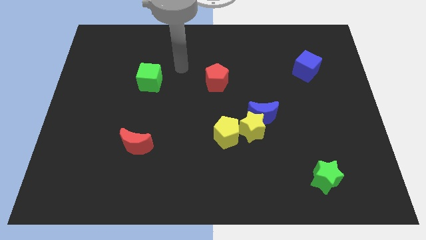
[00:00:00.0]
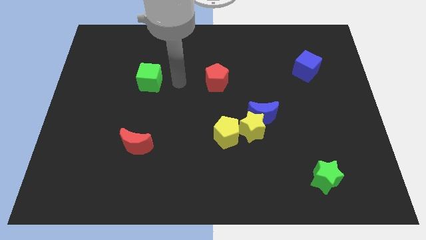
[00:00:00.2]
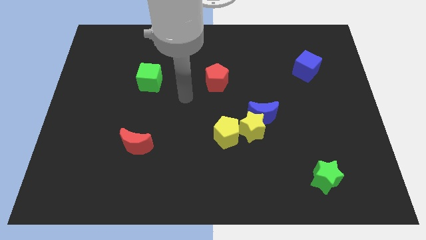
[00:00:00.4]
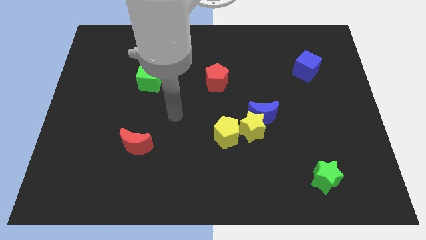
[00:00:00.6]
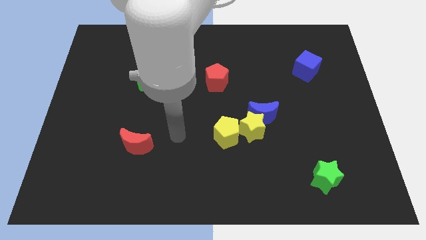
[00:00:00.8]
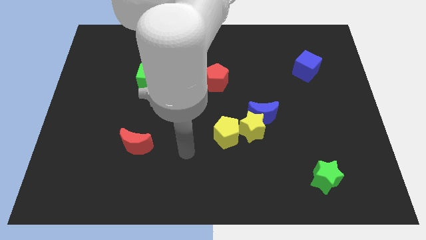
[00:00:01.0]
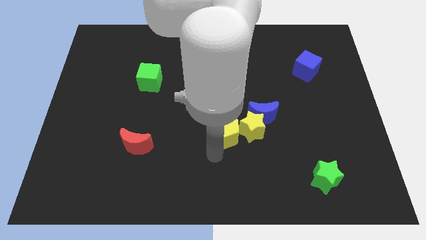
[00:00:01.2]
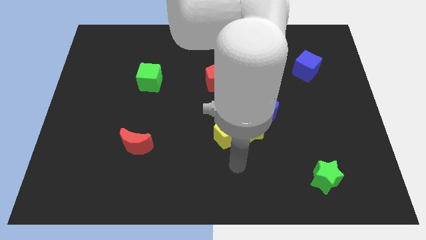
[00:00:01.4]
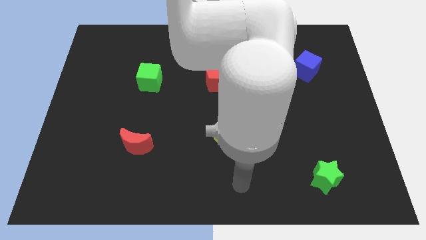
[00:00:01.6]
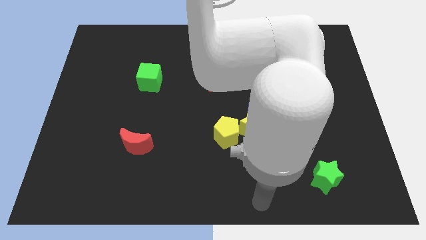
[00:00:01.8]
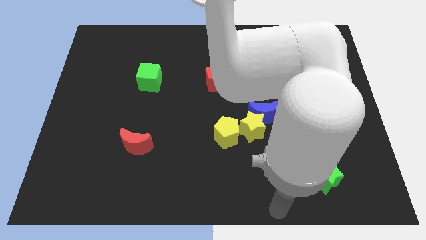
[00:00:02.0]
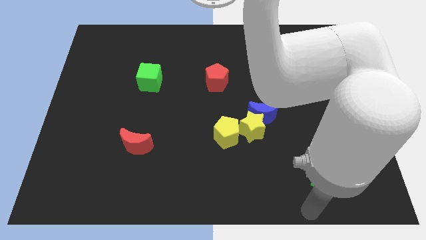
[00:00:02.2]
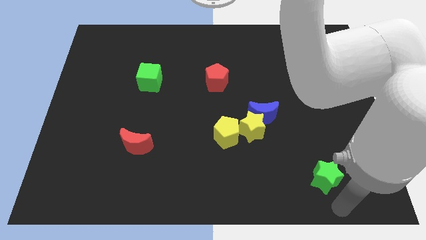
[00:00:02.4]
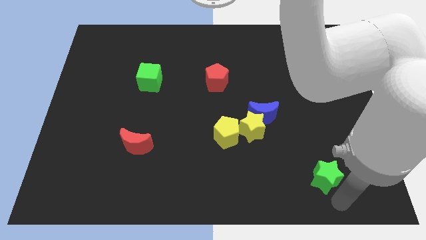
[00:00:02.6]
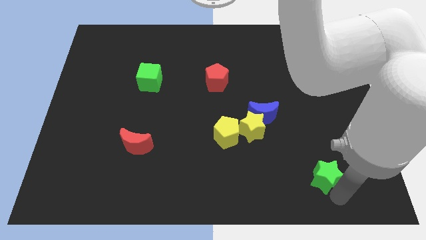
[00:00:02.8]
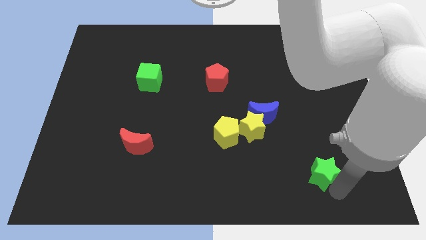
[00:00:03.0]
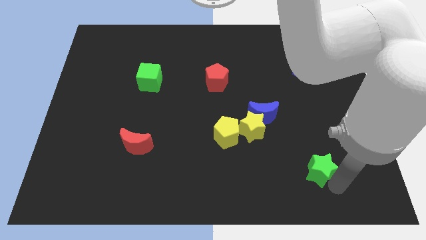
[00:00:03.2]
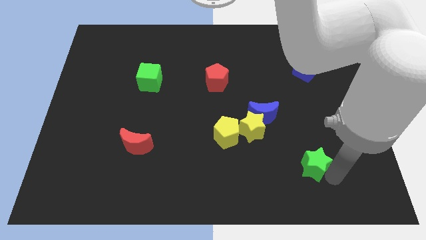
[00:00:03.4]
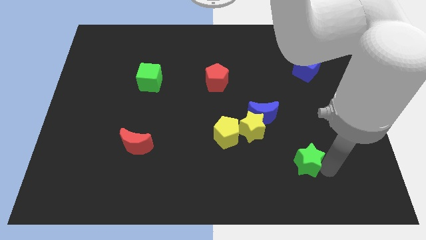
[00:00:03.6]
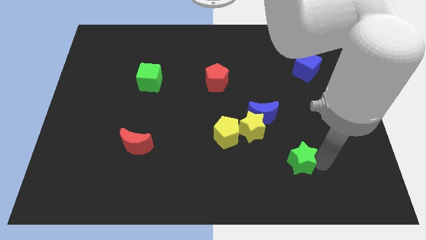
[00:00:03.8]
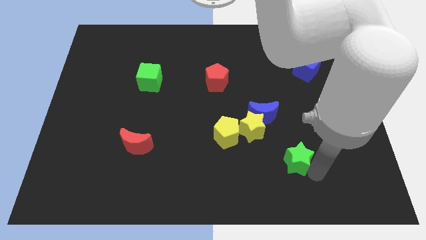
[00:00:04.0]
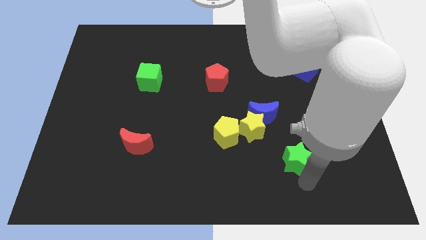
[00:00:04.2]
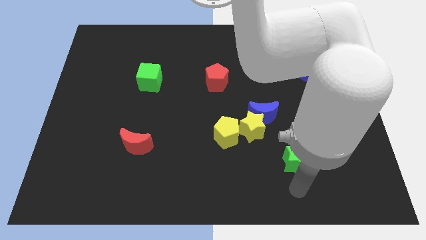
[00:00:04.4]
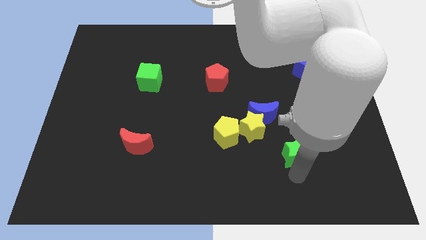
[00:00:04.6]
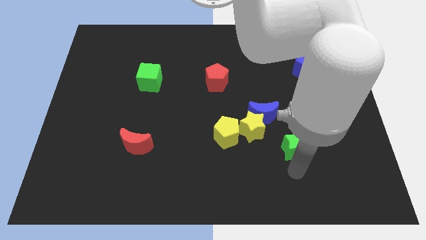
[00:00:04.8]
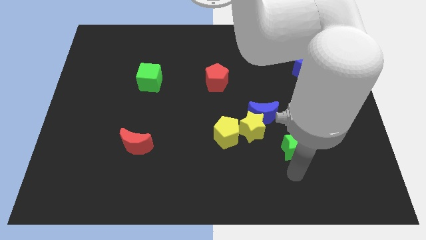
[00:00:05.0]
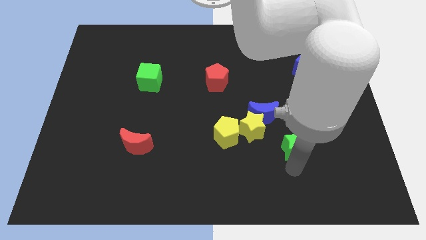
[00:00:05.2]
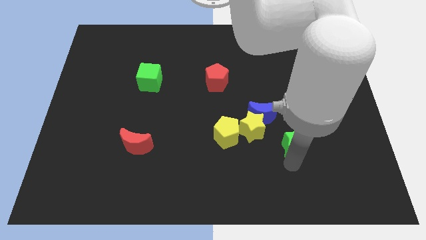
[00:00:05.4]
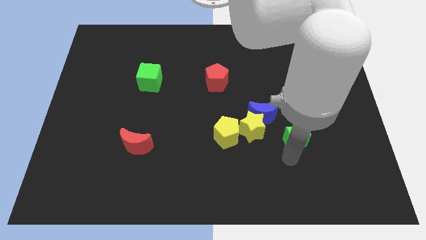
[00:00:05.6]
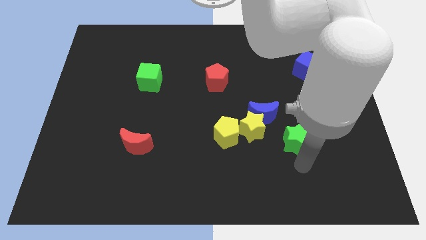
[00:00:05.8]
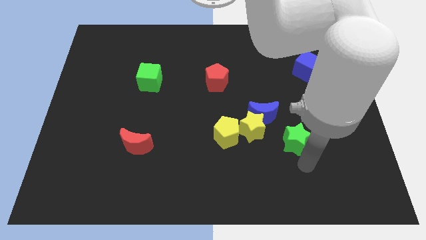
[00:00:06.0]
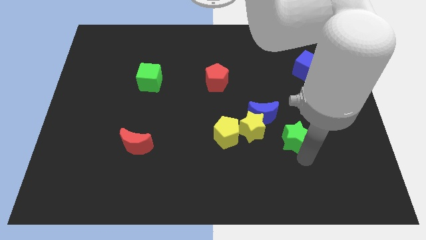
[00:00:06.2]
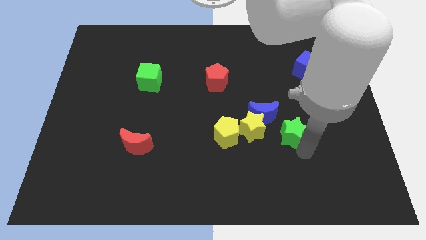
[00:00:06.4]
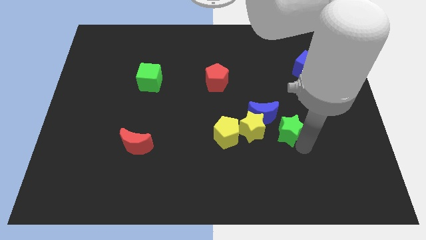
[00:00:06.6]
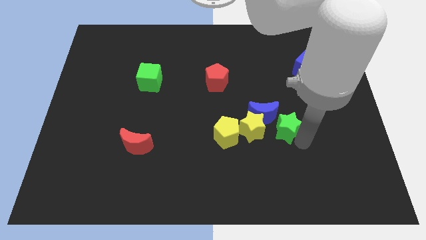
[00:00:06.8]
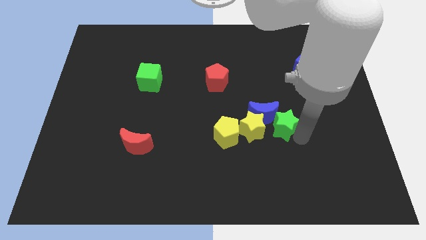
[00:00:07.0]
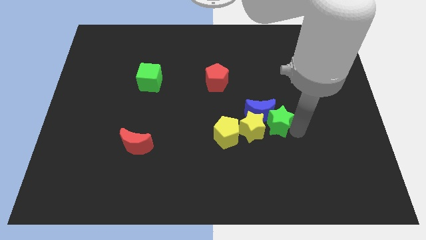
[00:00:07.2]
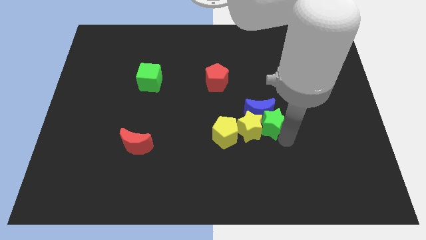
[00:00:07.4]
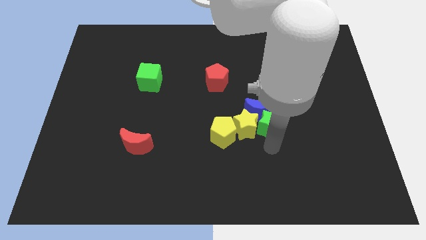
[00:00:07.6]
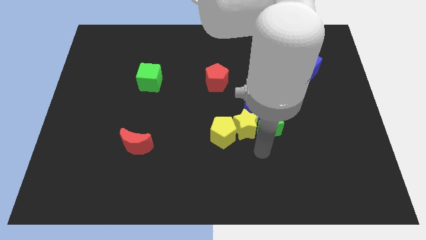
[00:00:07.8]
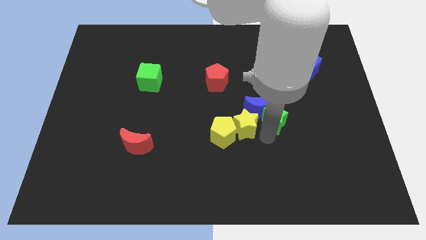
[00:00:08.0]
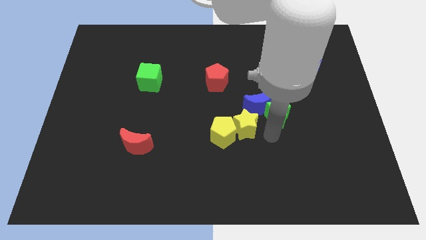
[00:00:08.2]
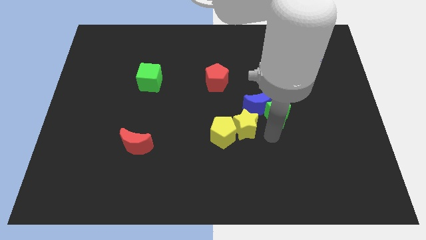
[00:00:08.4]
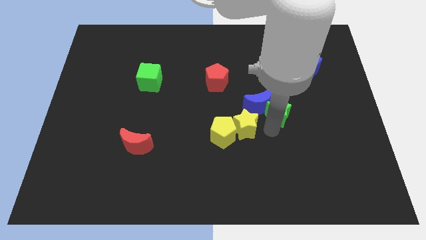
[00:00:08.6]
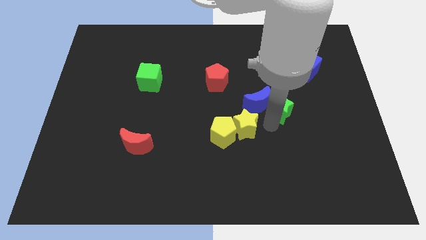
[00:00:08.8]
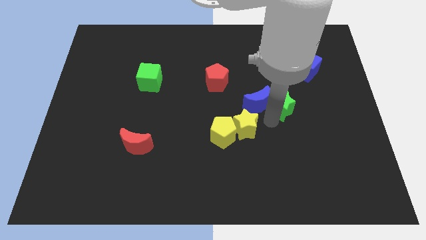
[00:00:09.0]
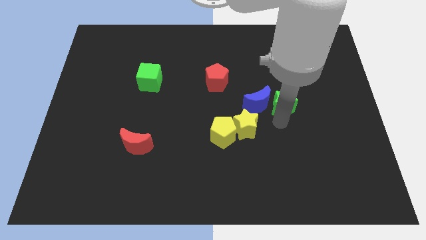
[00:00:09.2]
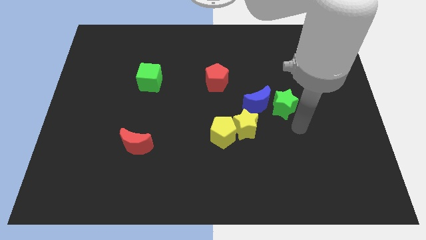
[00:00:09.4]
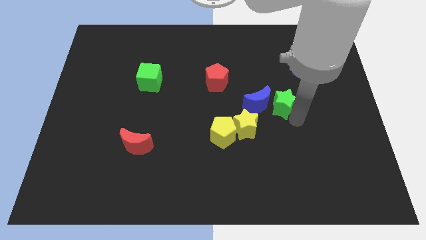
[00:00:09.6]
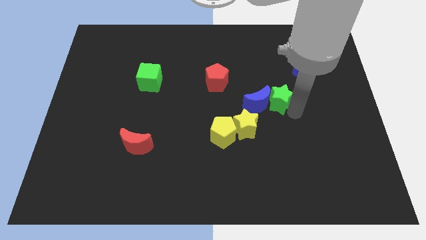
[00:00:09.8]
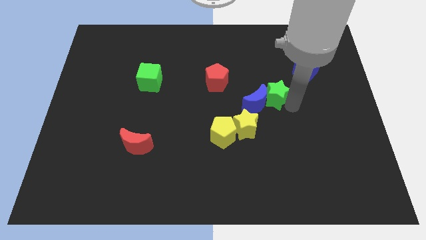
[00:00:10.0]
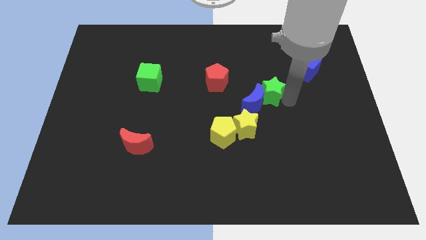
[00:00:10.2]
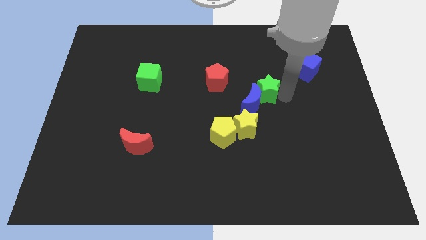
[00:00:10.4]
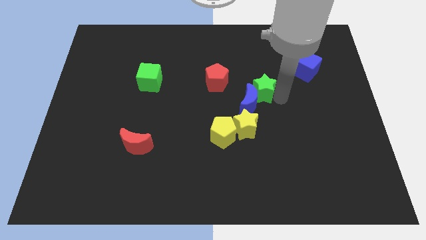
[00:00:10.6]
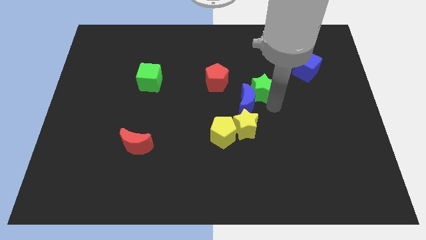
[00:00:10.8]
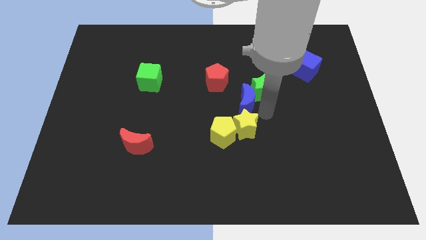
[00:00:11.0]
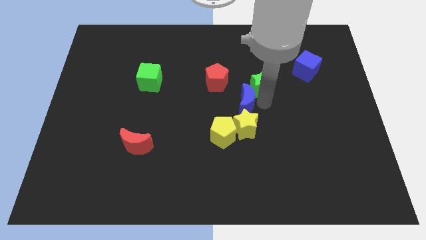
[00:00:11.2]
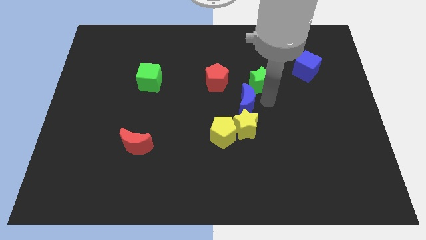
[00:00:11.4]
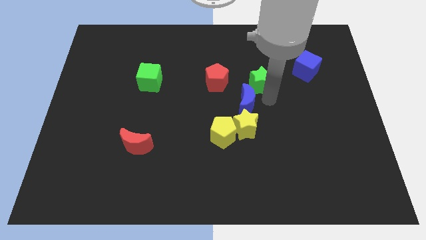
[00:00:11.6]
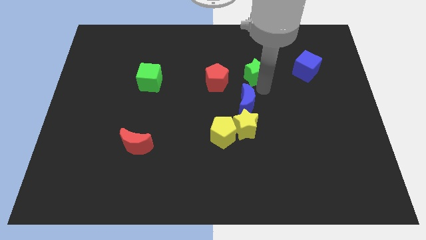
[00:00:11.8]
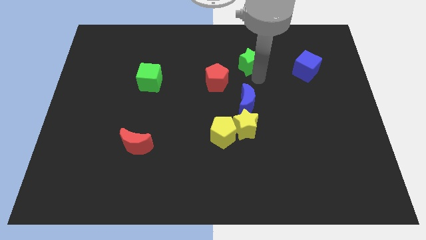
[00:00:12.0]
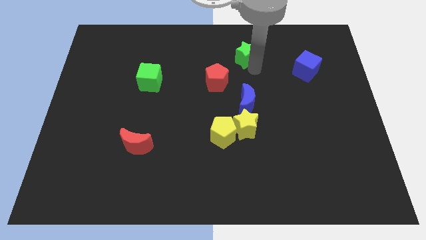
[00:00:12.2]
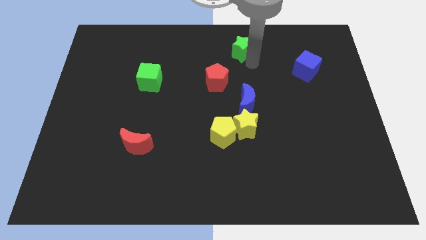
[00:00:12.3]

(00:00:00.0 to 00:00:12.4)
move the green star to the towards your base

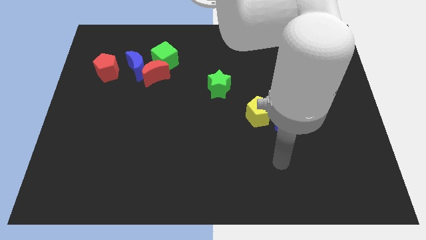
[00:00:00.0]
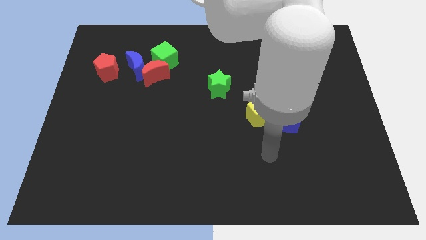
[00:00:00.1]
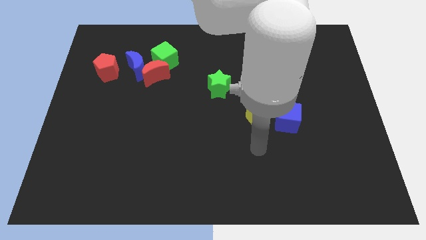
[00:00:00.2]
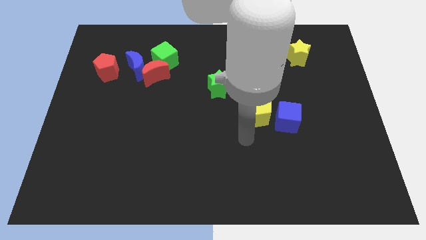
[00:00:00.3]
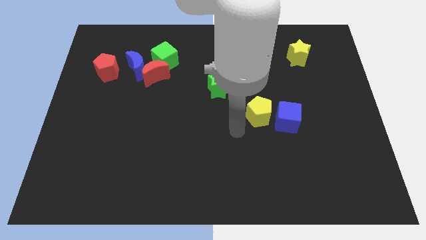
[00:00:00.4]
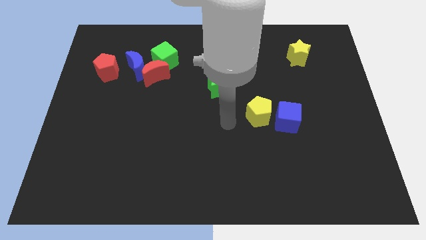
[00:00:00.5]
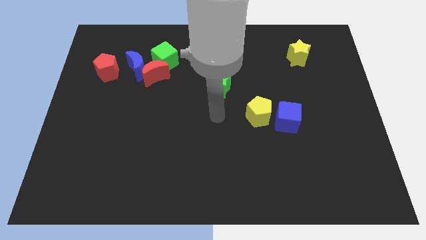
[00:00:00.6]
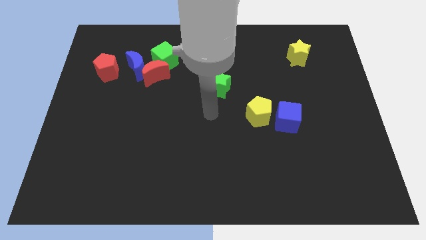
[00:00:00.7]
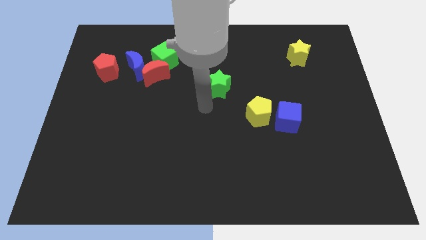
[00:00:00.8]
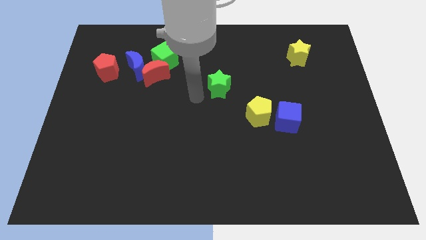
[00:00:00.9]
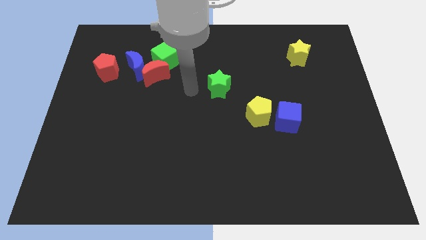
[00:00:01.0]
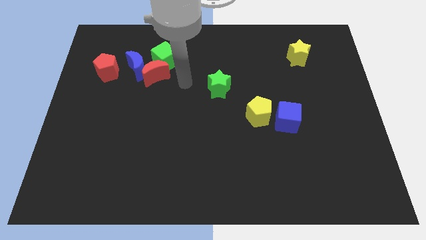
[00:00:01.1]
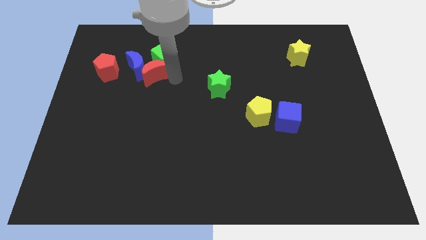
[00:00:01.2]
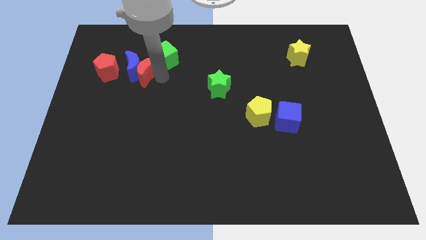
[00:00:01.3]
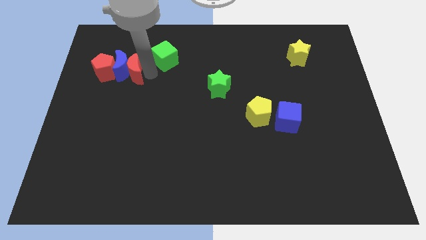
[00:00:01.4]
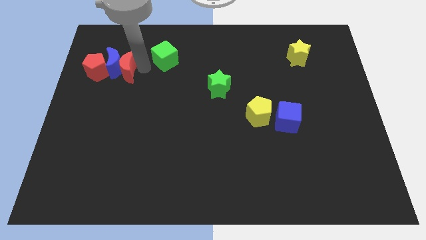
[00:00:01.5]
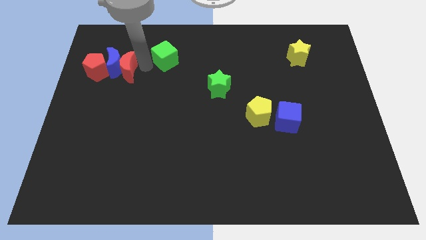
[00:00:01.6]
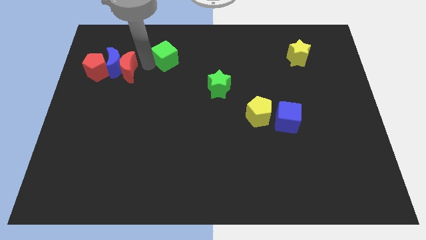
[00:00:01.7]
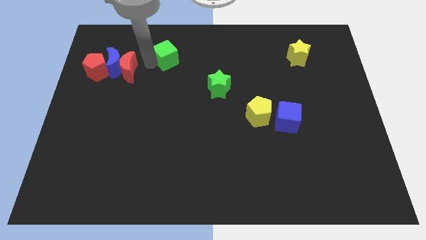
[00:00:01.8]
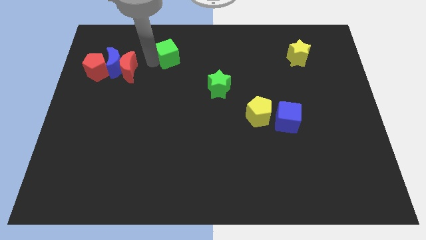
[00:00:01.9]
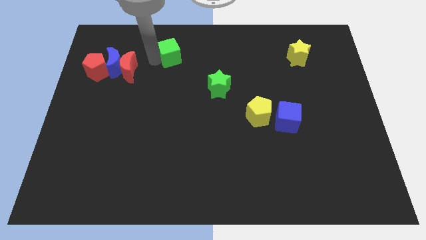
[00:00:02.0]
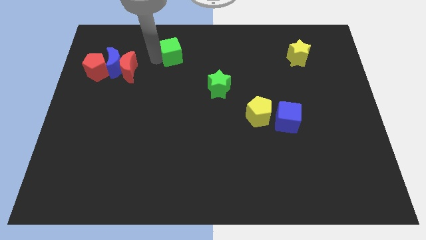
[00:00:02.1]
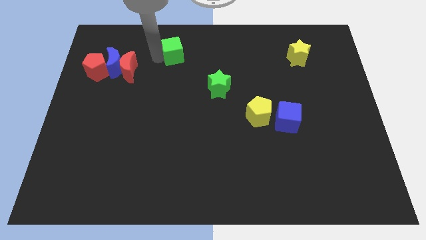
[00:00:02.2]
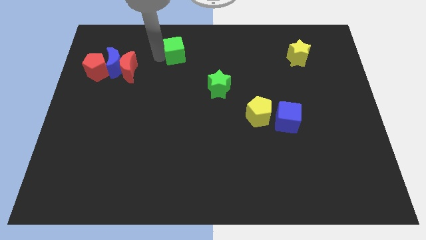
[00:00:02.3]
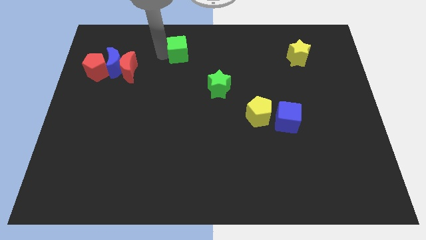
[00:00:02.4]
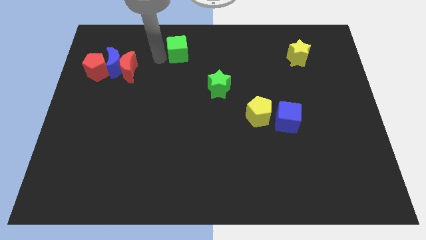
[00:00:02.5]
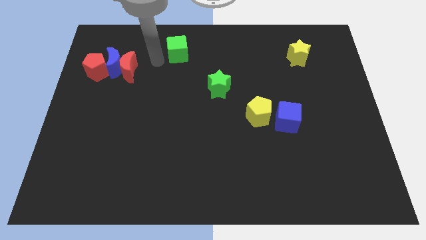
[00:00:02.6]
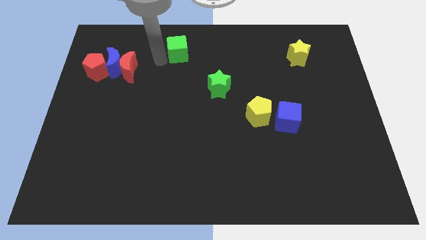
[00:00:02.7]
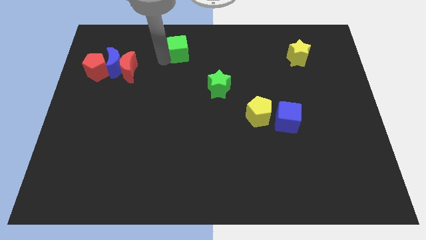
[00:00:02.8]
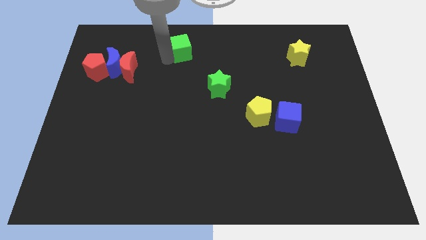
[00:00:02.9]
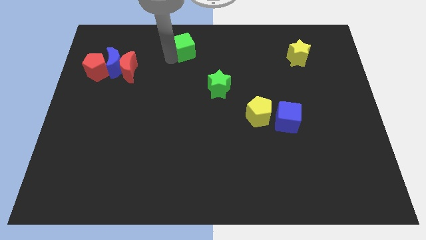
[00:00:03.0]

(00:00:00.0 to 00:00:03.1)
move the green cube to the top
